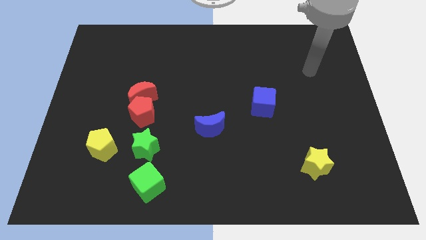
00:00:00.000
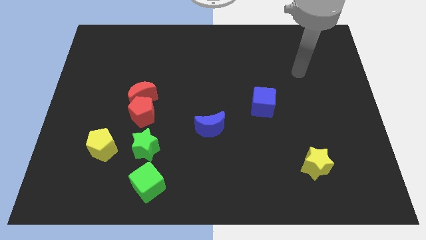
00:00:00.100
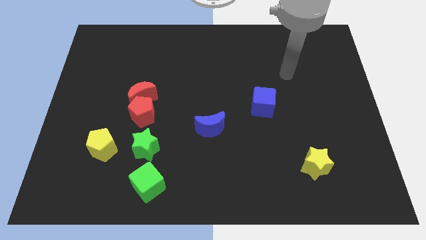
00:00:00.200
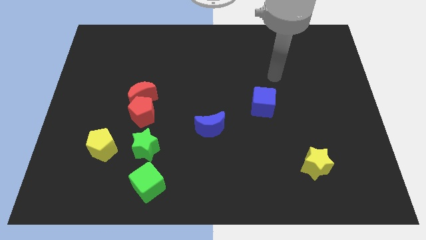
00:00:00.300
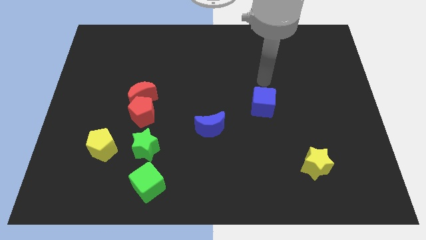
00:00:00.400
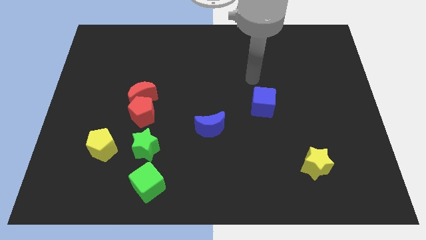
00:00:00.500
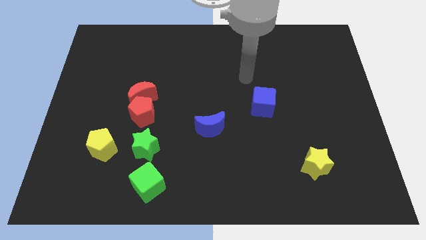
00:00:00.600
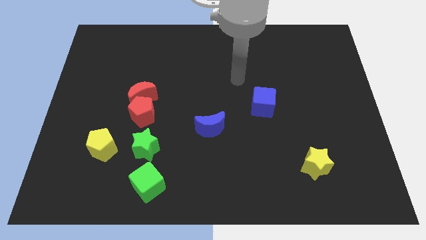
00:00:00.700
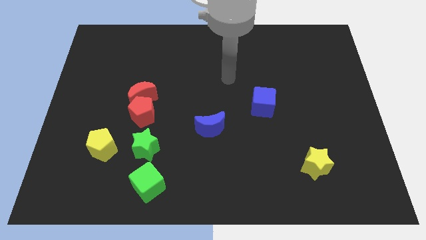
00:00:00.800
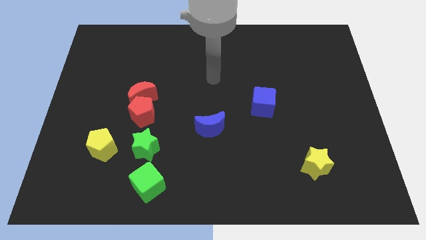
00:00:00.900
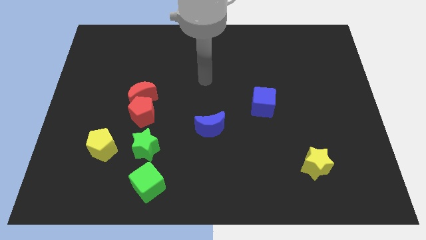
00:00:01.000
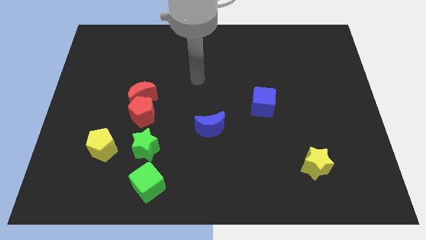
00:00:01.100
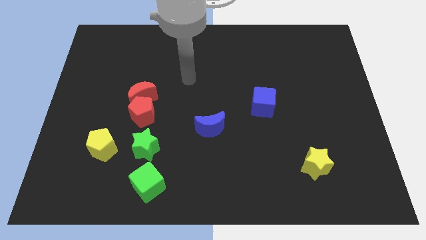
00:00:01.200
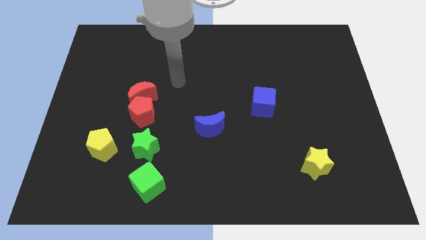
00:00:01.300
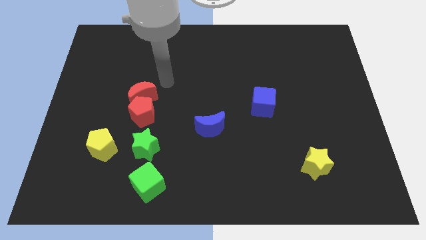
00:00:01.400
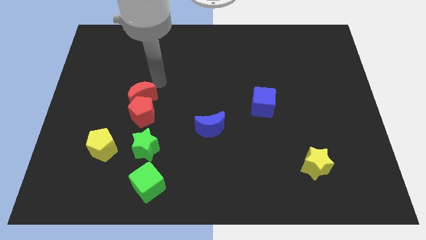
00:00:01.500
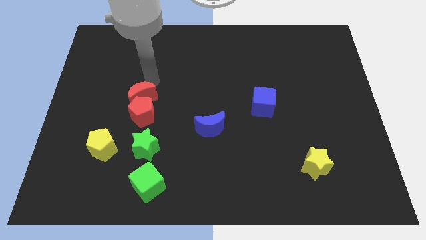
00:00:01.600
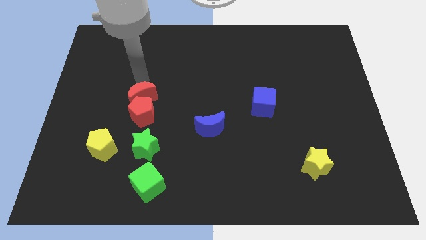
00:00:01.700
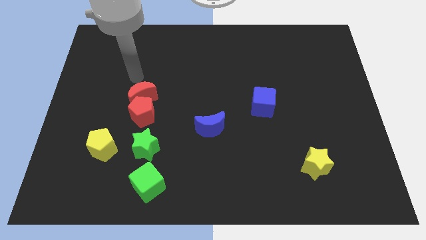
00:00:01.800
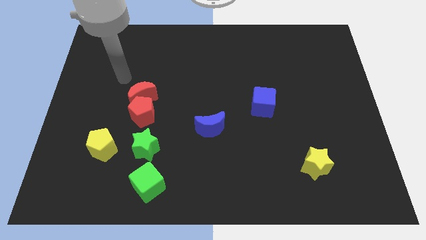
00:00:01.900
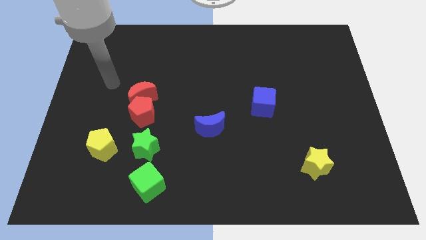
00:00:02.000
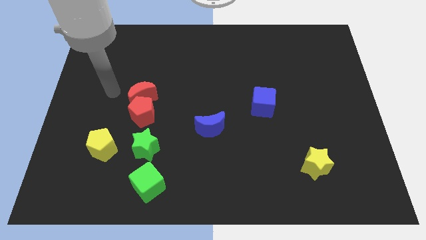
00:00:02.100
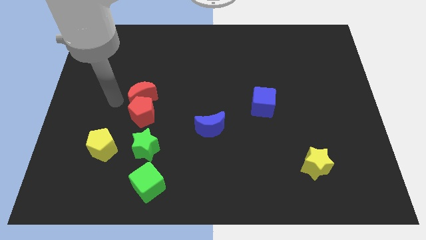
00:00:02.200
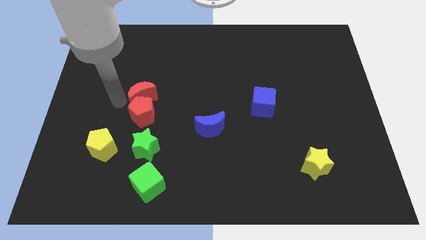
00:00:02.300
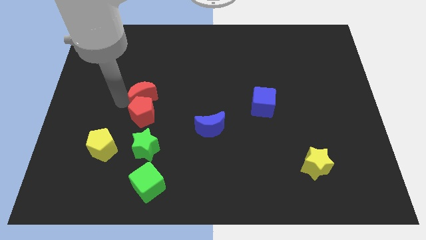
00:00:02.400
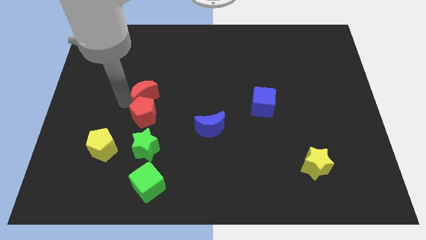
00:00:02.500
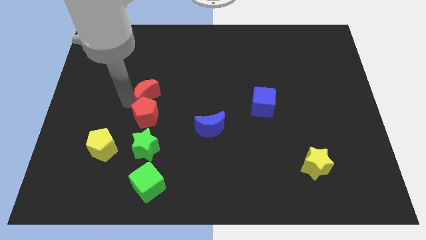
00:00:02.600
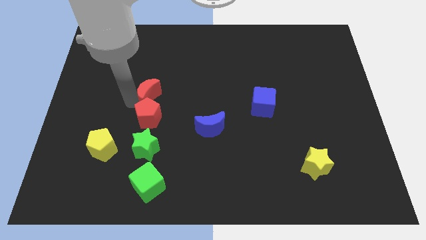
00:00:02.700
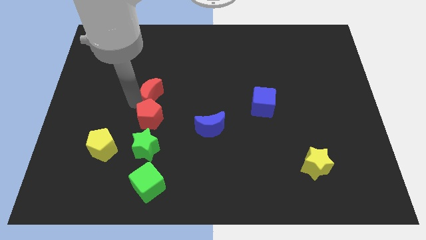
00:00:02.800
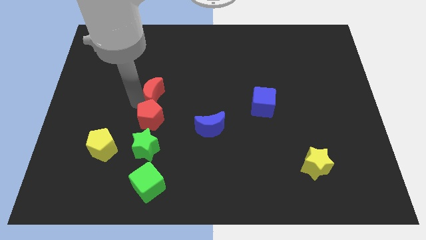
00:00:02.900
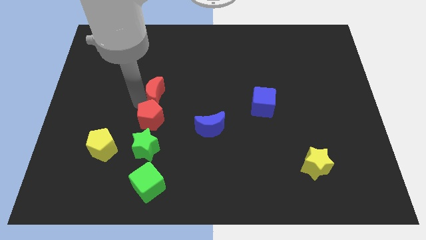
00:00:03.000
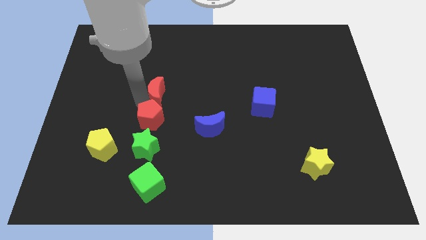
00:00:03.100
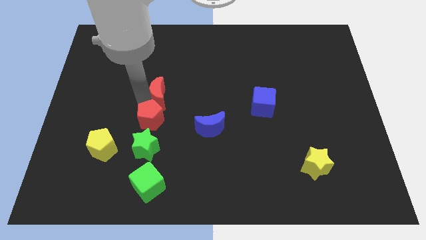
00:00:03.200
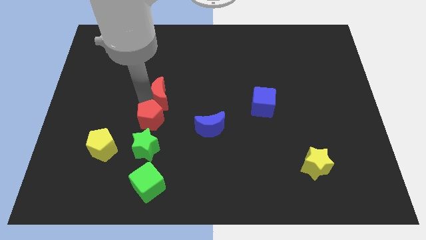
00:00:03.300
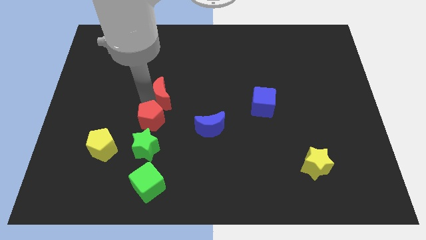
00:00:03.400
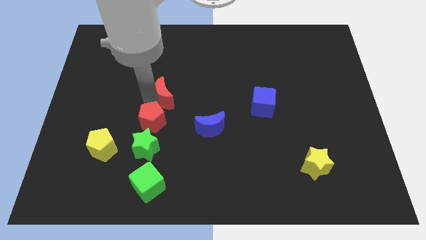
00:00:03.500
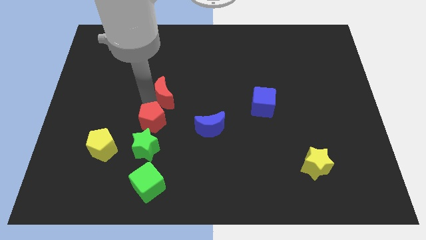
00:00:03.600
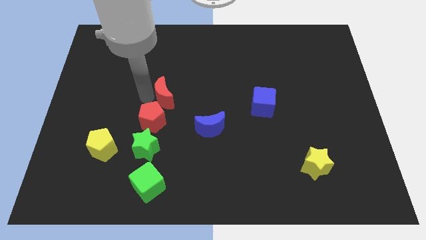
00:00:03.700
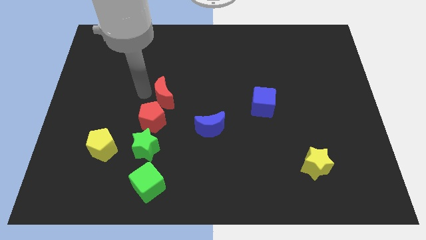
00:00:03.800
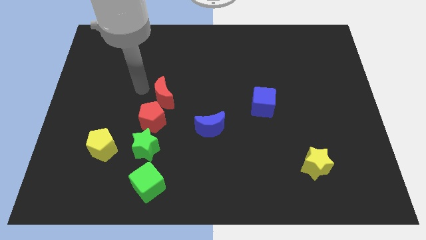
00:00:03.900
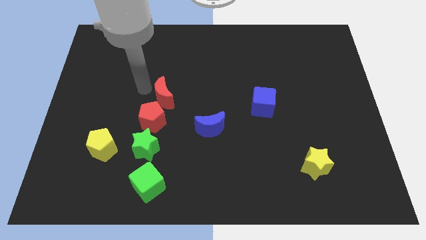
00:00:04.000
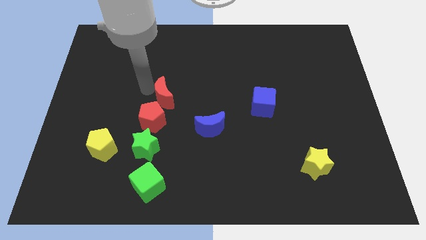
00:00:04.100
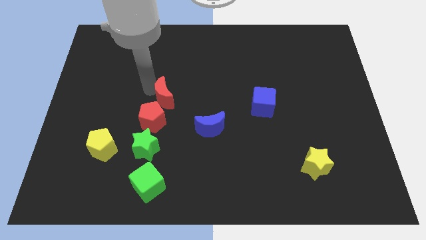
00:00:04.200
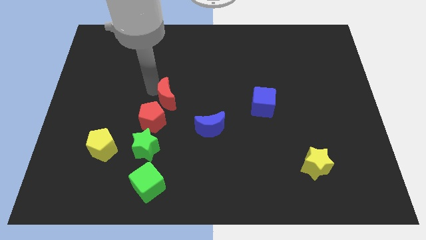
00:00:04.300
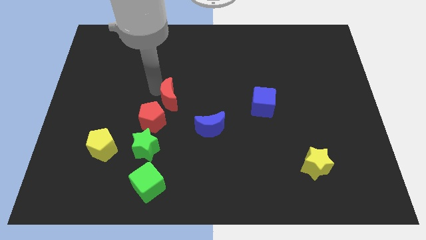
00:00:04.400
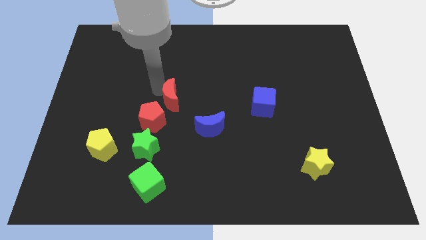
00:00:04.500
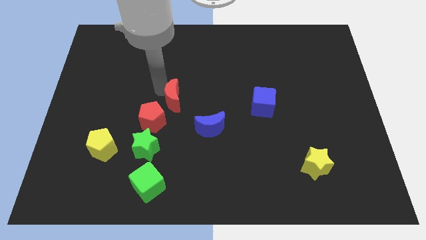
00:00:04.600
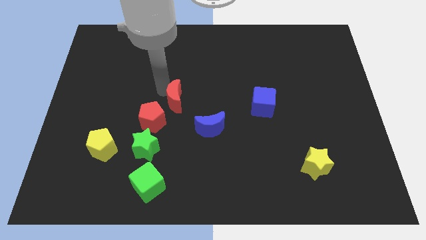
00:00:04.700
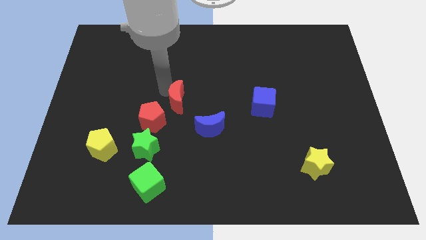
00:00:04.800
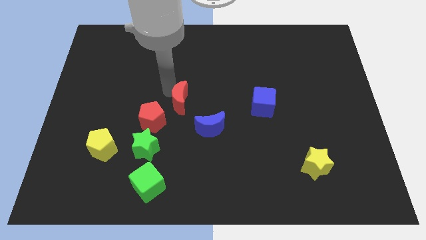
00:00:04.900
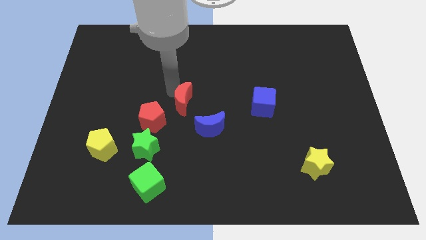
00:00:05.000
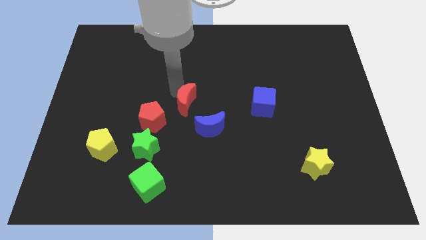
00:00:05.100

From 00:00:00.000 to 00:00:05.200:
slightly slide the red moon down and right

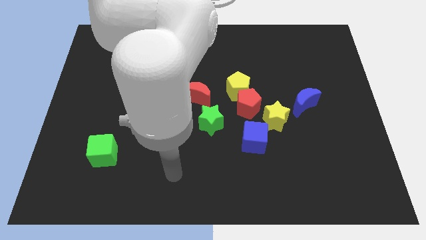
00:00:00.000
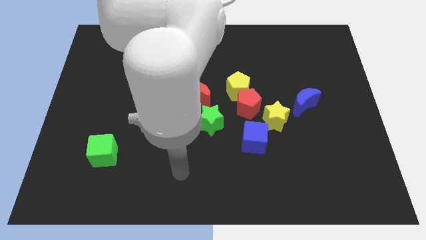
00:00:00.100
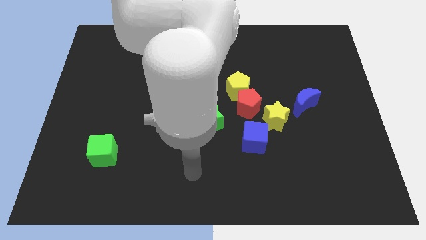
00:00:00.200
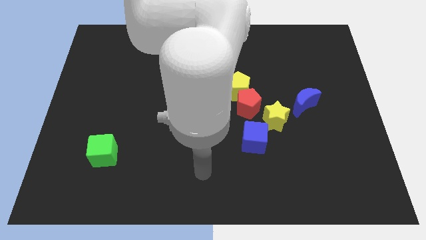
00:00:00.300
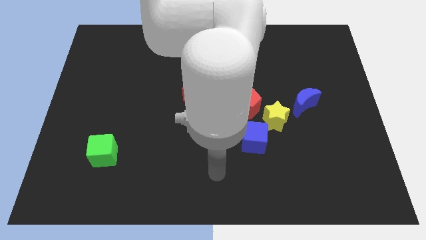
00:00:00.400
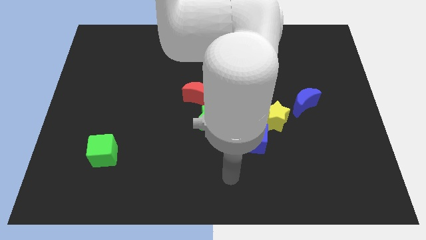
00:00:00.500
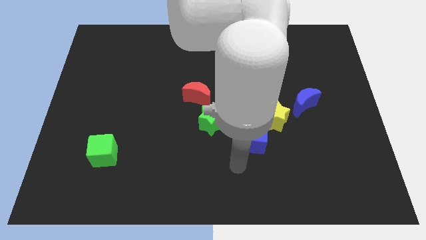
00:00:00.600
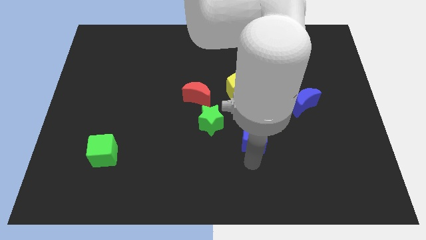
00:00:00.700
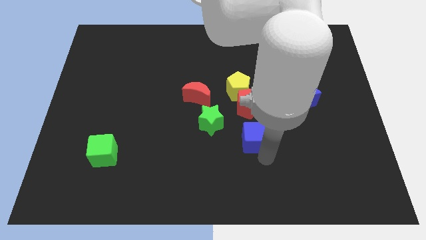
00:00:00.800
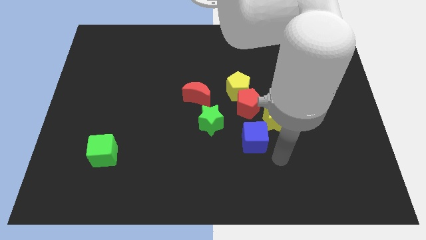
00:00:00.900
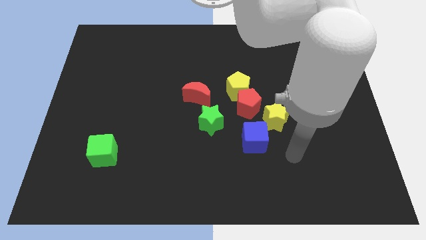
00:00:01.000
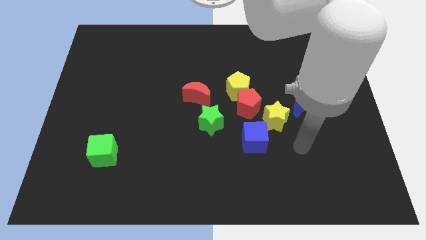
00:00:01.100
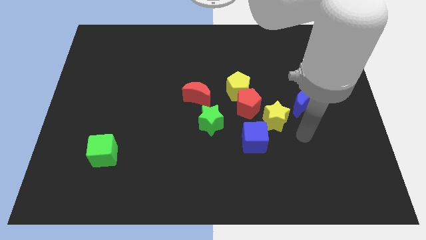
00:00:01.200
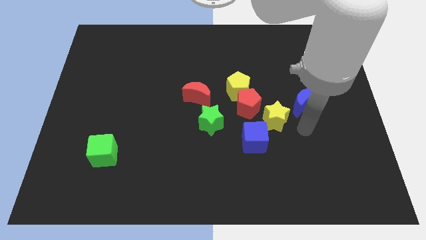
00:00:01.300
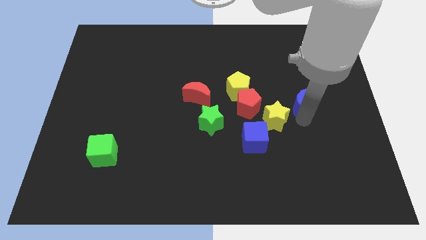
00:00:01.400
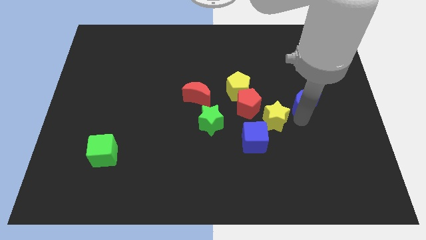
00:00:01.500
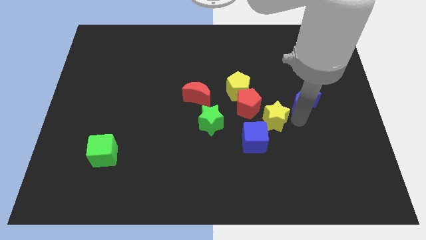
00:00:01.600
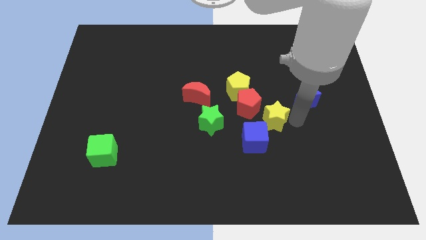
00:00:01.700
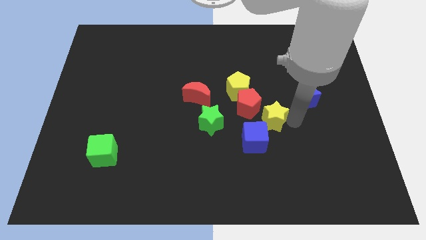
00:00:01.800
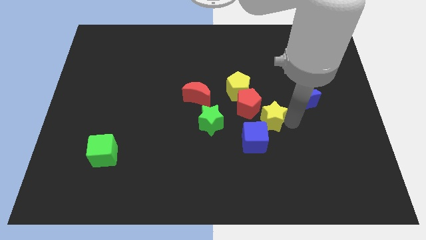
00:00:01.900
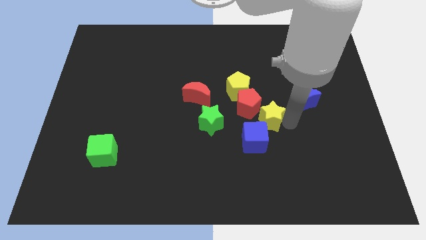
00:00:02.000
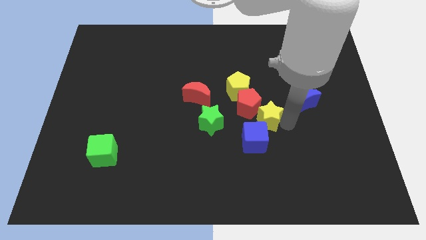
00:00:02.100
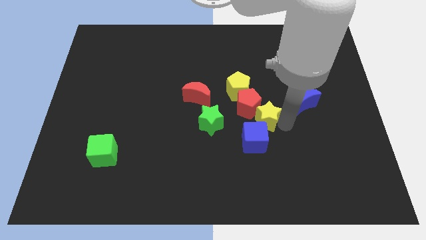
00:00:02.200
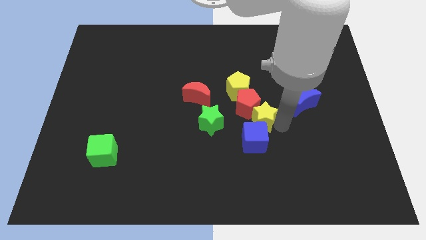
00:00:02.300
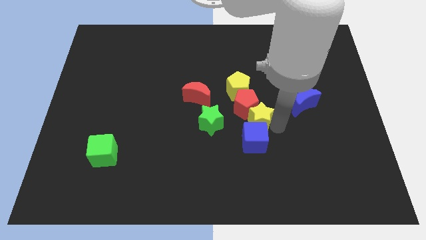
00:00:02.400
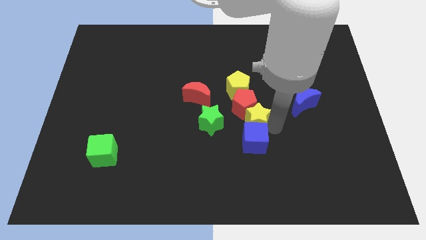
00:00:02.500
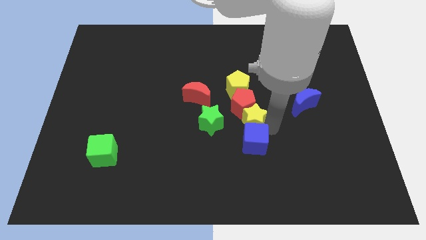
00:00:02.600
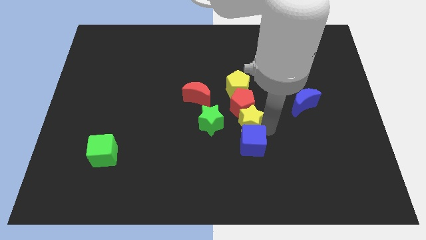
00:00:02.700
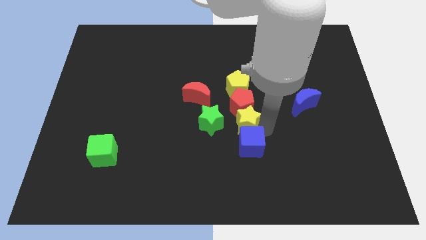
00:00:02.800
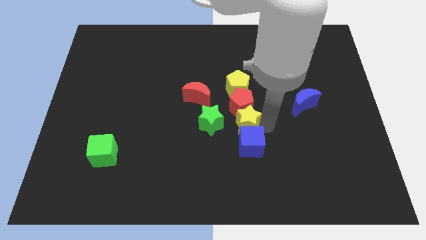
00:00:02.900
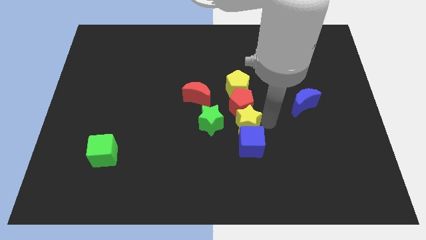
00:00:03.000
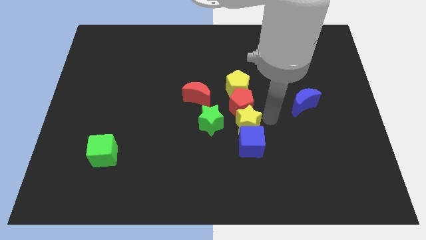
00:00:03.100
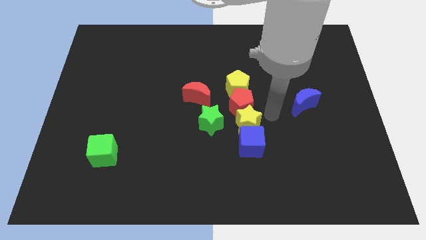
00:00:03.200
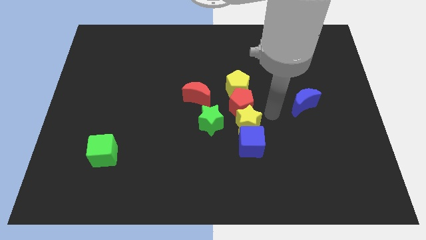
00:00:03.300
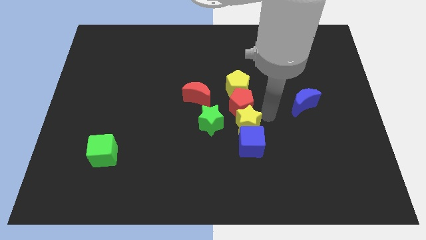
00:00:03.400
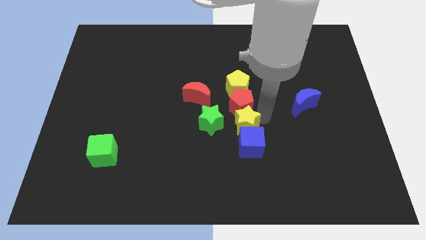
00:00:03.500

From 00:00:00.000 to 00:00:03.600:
move the yellow star slightly left
